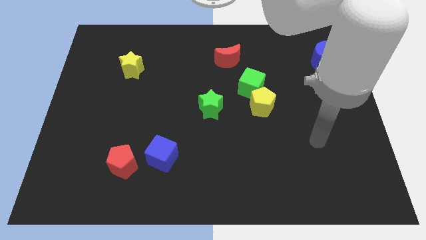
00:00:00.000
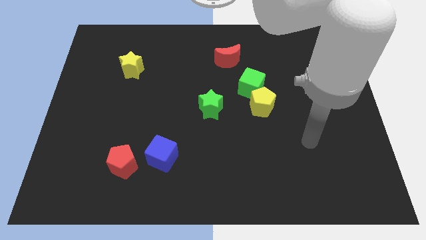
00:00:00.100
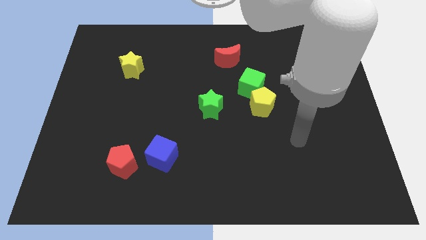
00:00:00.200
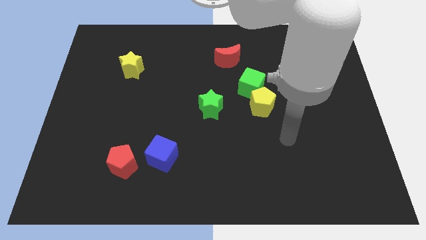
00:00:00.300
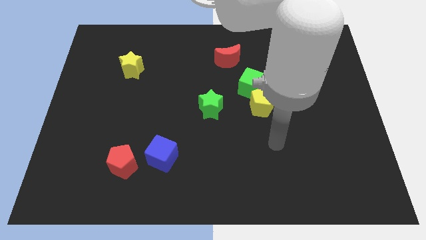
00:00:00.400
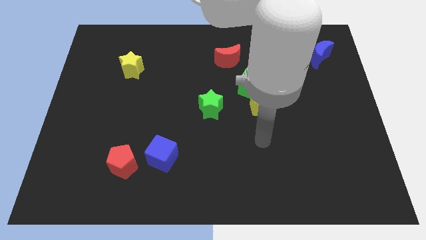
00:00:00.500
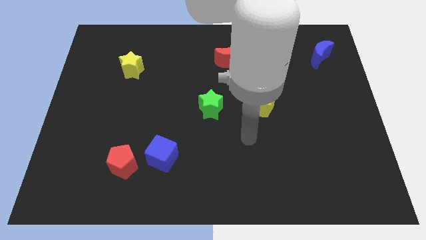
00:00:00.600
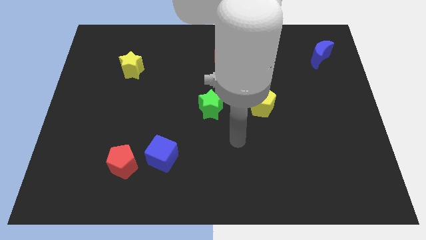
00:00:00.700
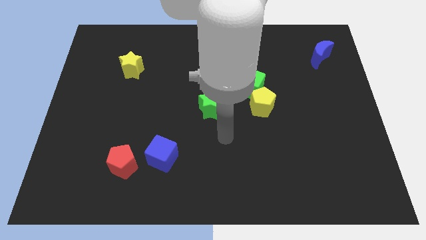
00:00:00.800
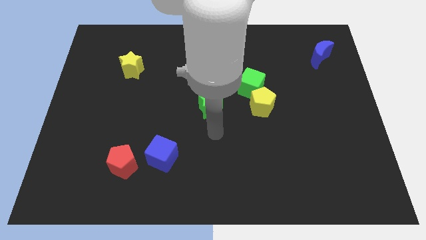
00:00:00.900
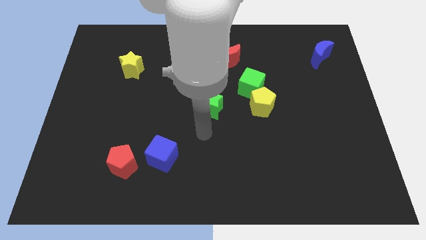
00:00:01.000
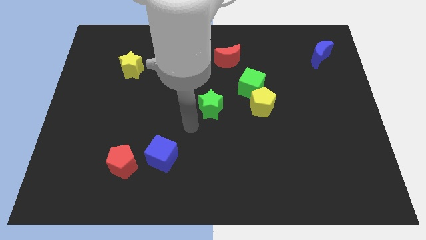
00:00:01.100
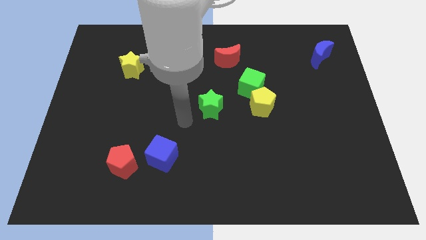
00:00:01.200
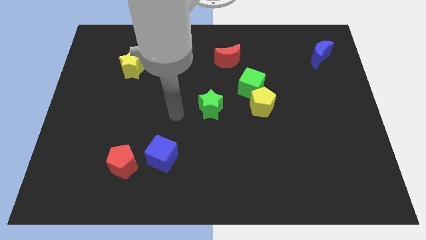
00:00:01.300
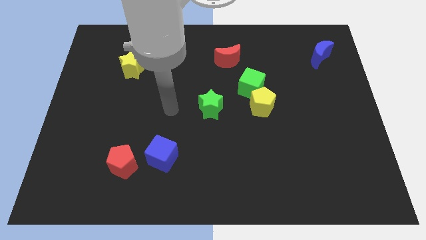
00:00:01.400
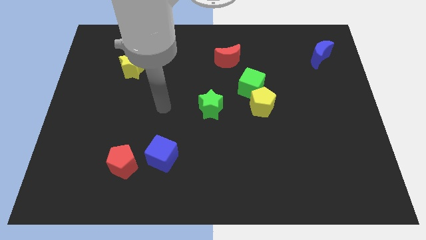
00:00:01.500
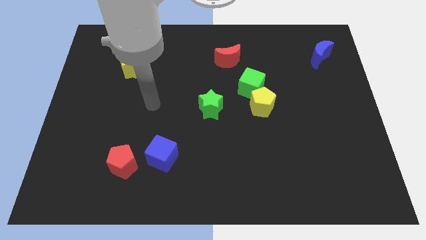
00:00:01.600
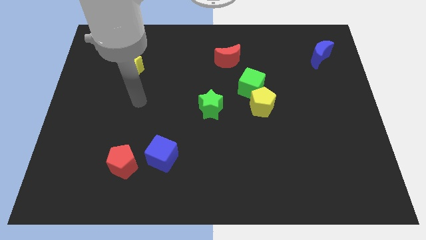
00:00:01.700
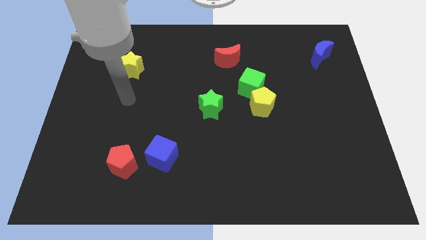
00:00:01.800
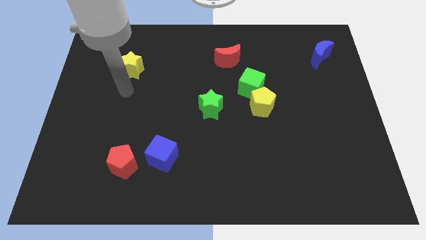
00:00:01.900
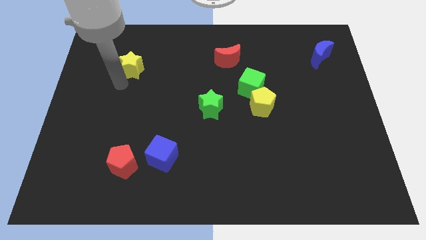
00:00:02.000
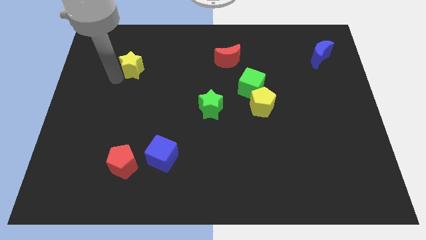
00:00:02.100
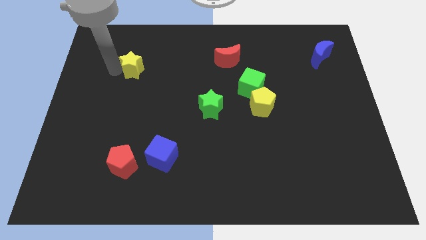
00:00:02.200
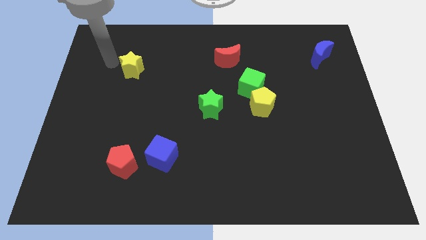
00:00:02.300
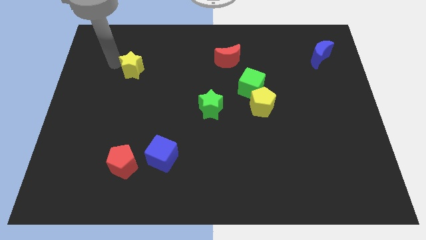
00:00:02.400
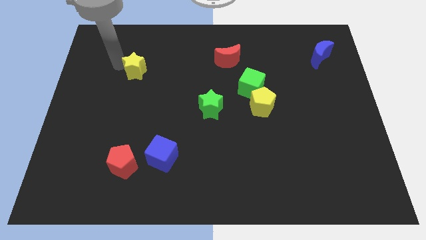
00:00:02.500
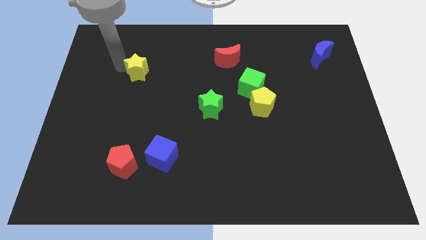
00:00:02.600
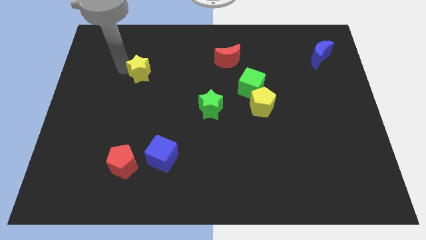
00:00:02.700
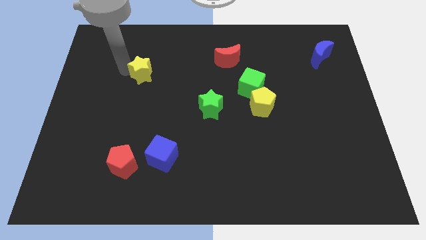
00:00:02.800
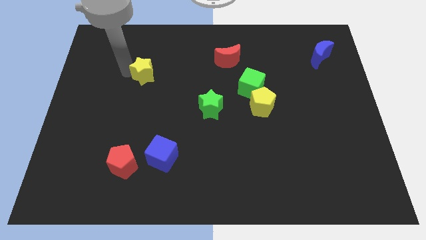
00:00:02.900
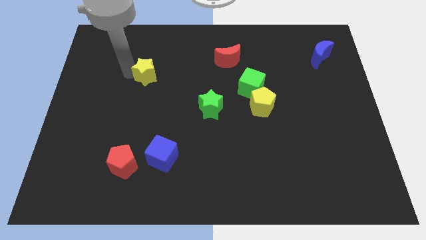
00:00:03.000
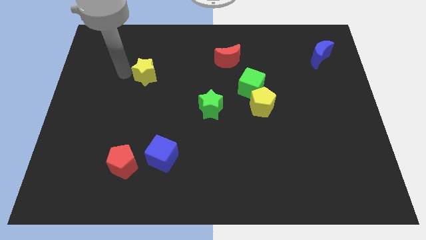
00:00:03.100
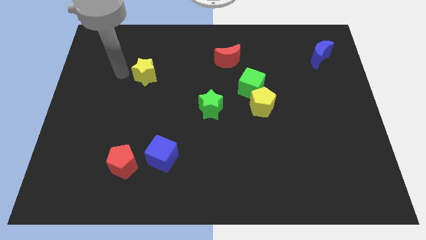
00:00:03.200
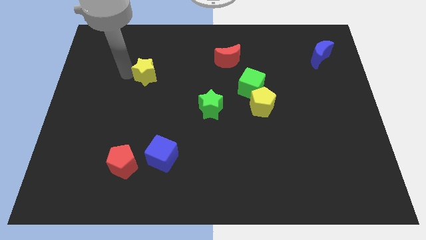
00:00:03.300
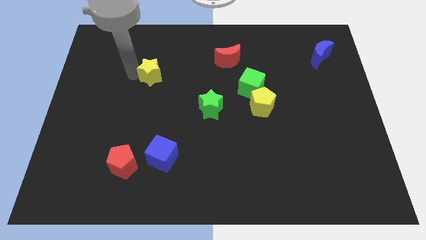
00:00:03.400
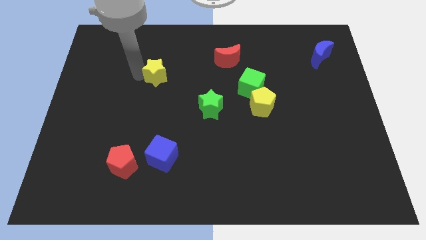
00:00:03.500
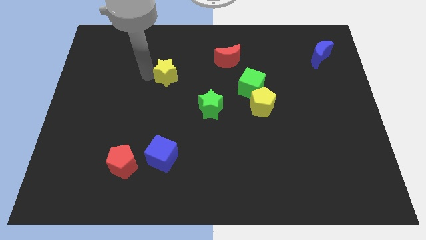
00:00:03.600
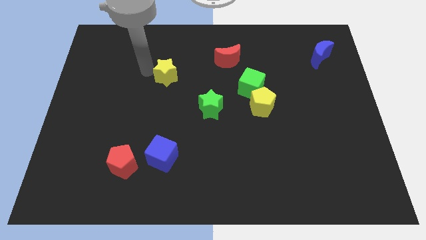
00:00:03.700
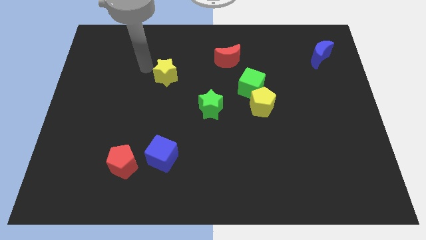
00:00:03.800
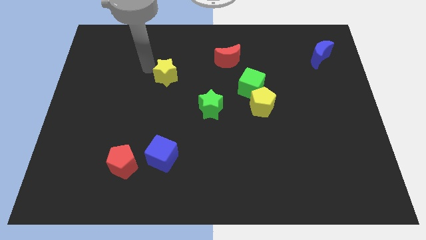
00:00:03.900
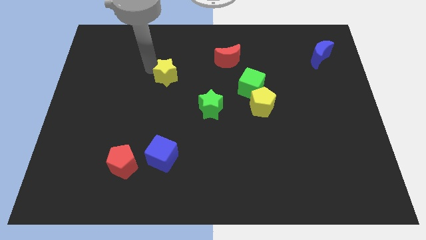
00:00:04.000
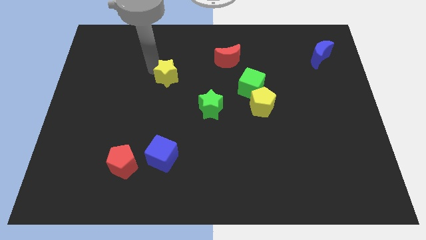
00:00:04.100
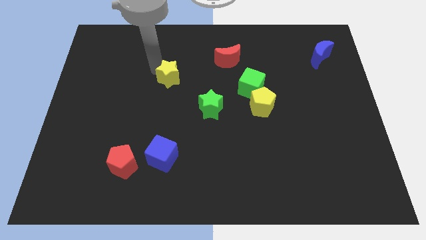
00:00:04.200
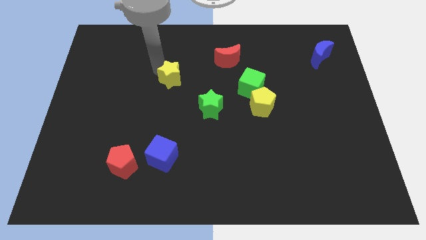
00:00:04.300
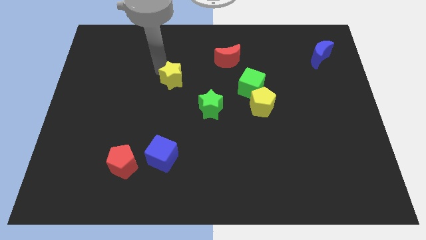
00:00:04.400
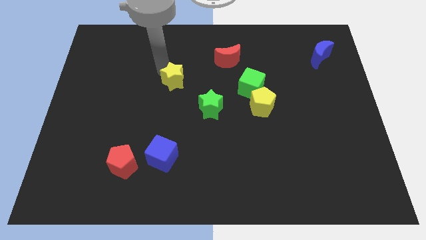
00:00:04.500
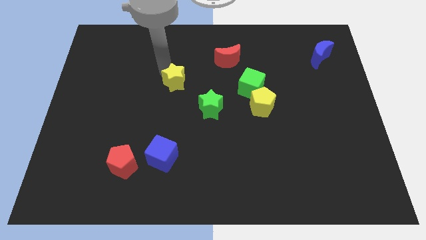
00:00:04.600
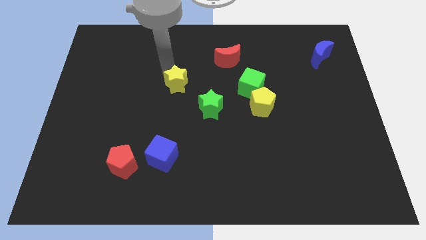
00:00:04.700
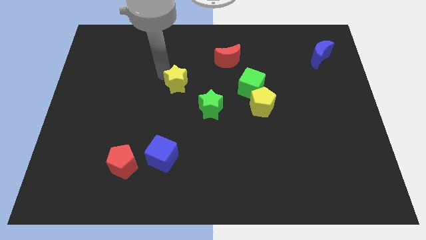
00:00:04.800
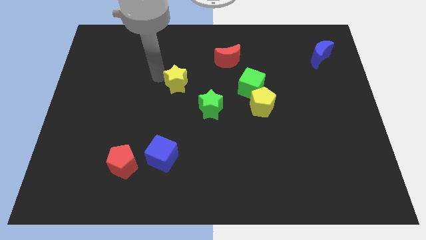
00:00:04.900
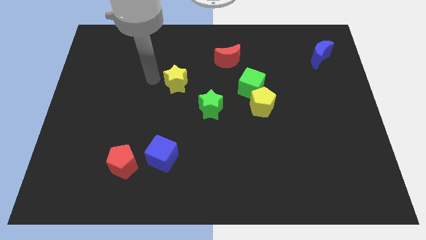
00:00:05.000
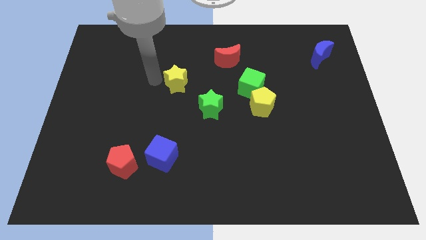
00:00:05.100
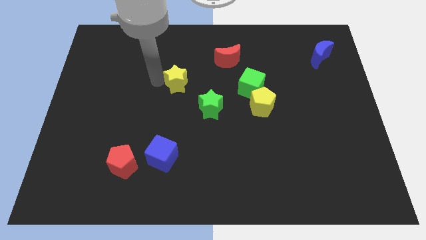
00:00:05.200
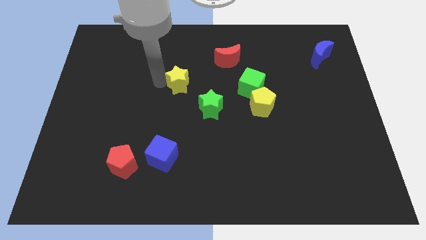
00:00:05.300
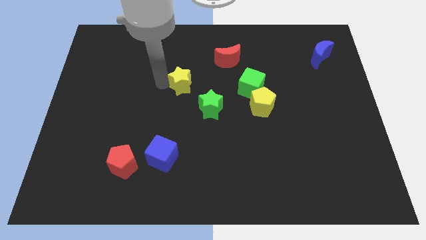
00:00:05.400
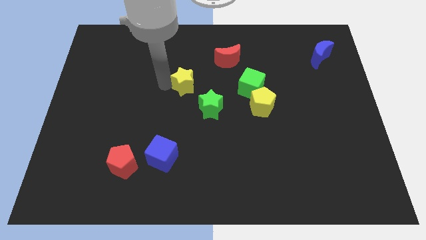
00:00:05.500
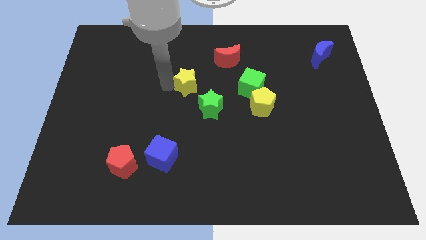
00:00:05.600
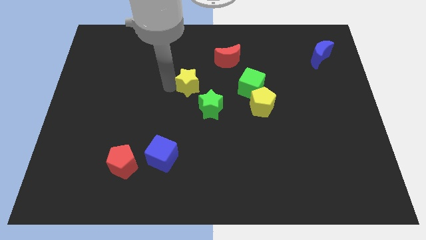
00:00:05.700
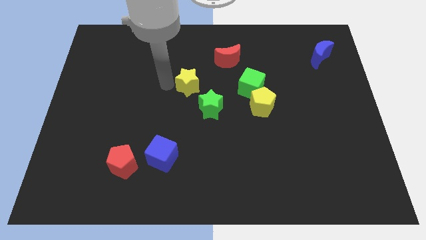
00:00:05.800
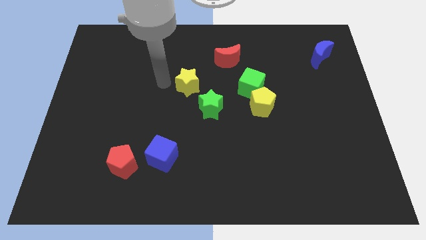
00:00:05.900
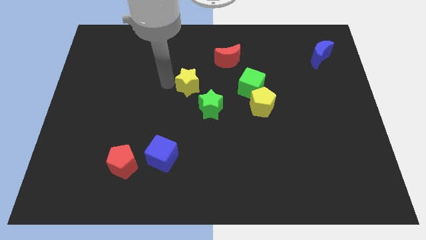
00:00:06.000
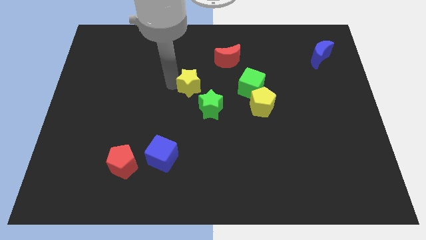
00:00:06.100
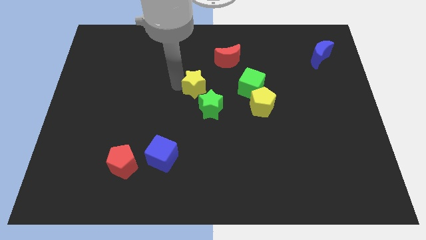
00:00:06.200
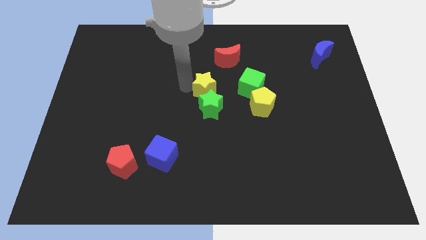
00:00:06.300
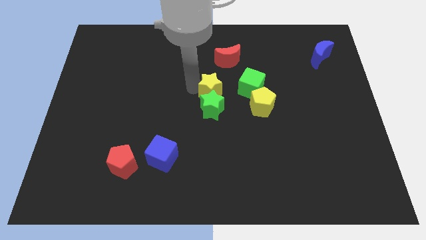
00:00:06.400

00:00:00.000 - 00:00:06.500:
slide the yellow star to the bottom side of the red moon

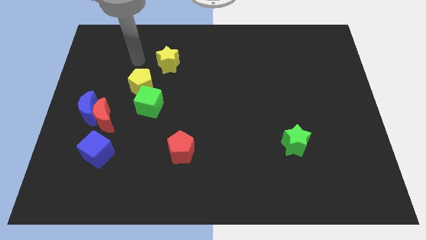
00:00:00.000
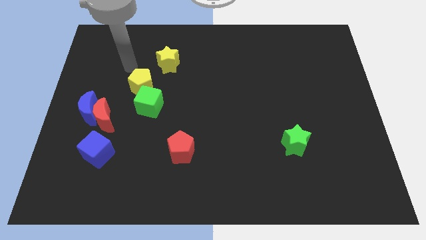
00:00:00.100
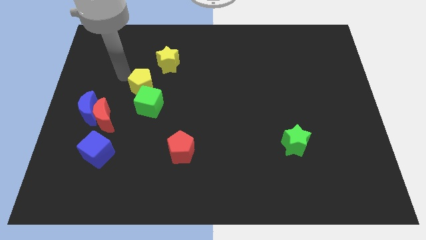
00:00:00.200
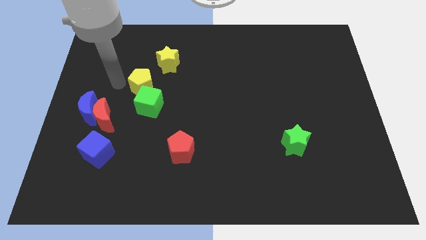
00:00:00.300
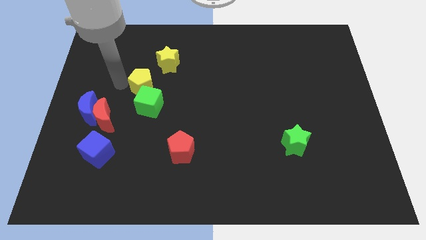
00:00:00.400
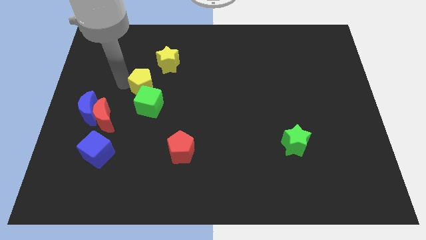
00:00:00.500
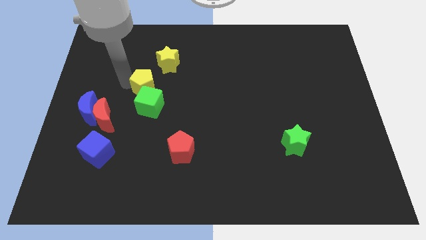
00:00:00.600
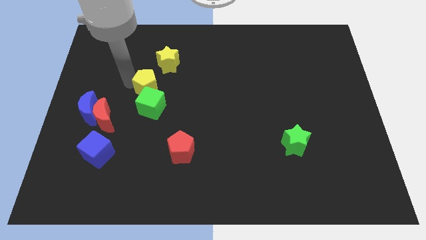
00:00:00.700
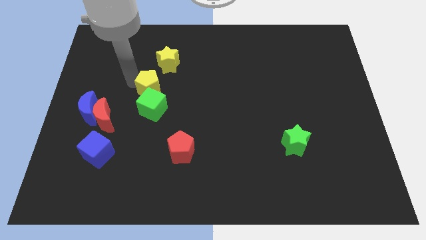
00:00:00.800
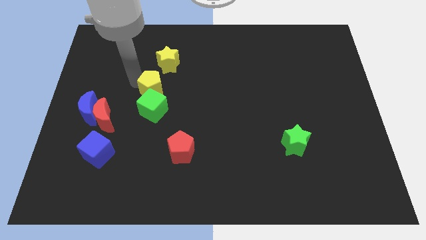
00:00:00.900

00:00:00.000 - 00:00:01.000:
slide the yellow pentagon to the top right of the green cube
